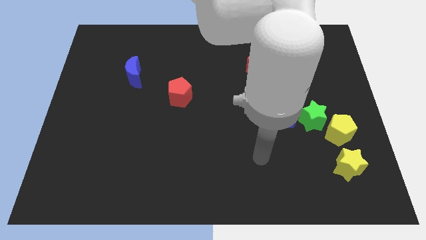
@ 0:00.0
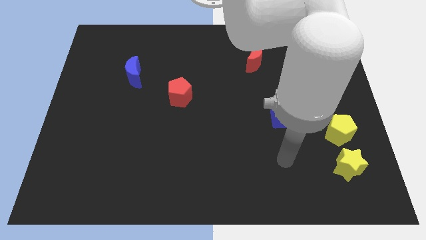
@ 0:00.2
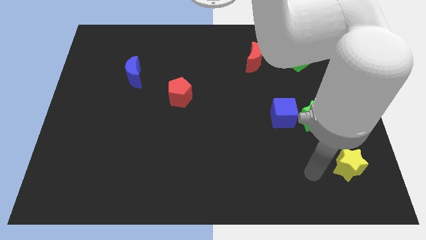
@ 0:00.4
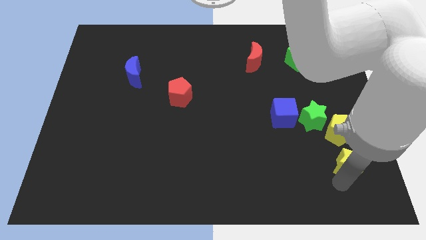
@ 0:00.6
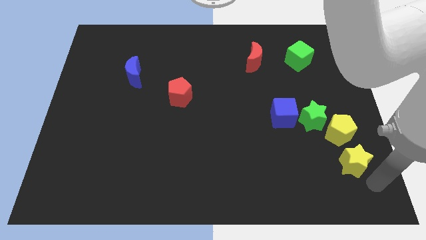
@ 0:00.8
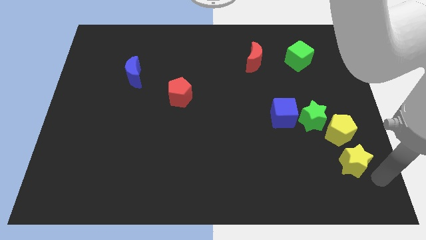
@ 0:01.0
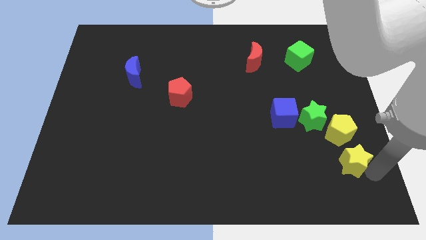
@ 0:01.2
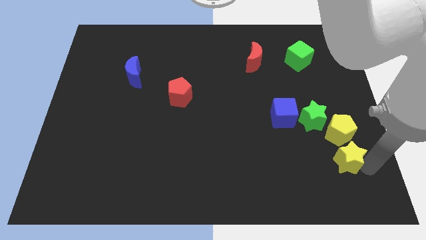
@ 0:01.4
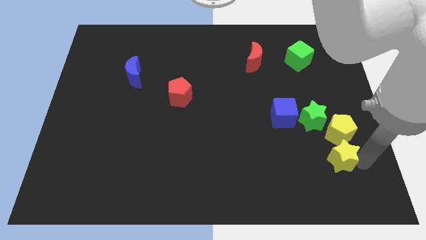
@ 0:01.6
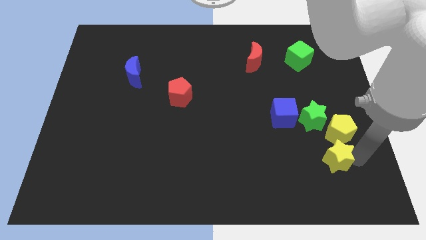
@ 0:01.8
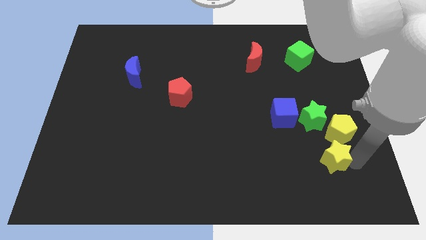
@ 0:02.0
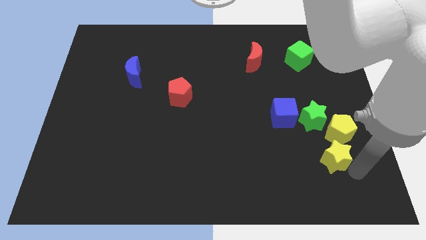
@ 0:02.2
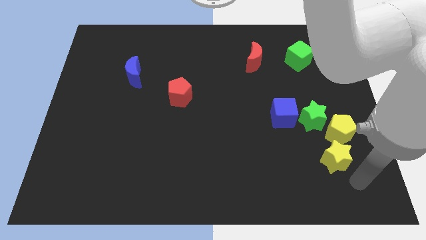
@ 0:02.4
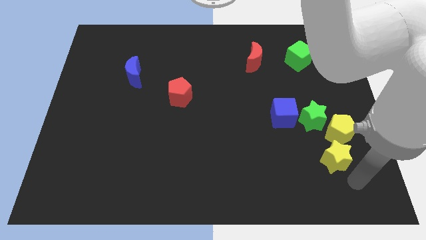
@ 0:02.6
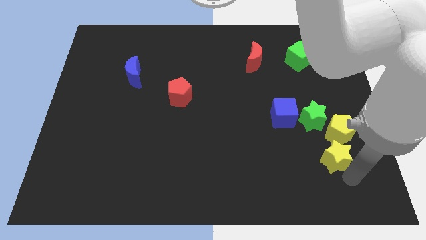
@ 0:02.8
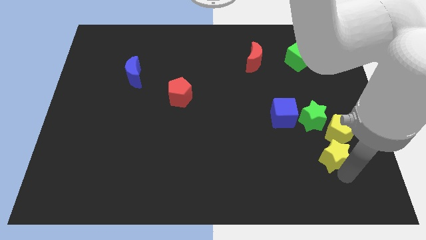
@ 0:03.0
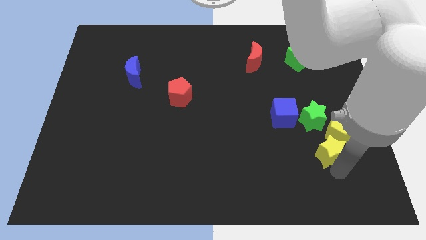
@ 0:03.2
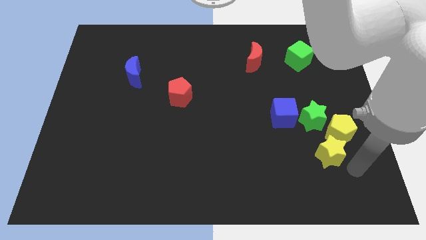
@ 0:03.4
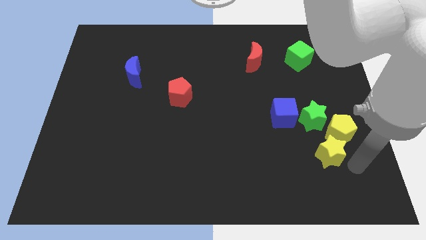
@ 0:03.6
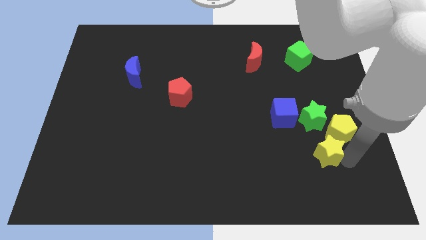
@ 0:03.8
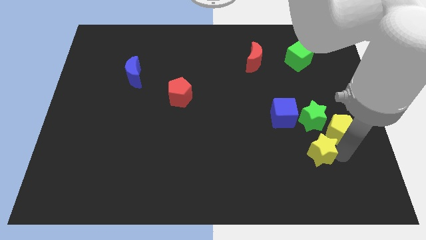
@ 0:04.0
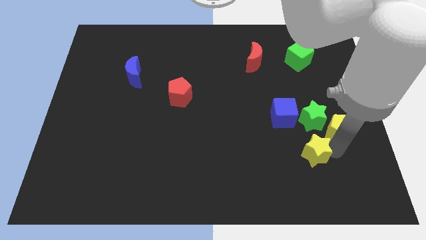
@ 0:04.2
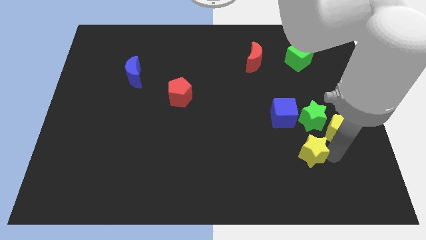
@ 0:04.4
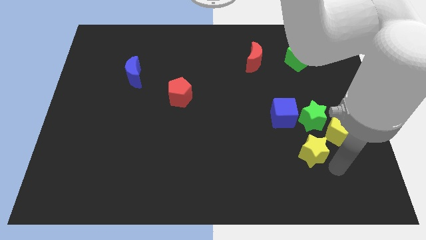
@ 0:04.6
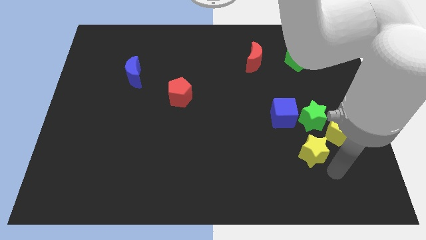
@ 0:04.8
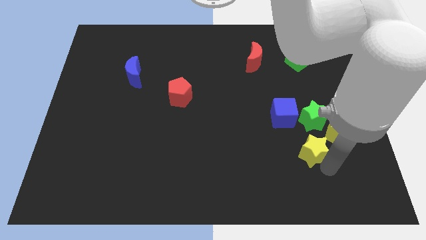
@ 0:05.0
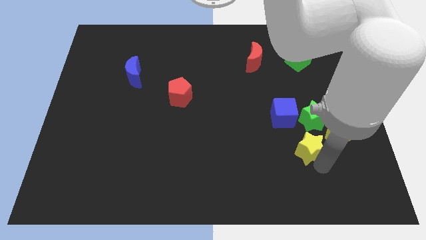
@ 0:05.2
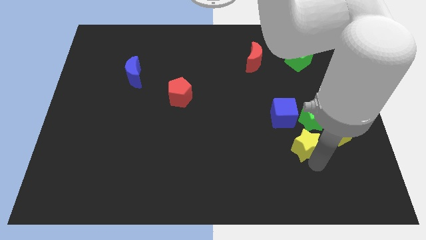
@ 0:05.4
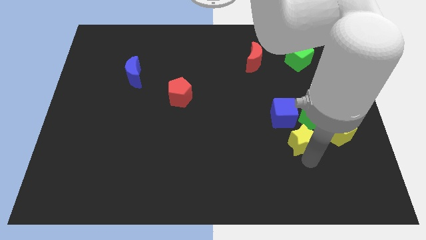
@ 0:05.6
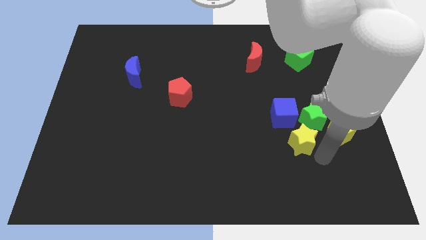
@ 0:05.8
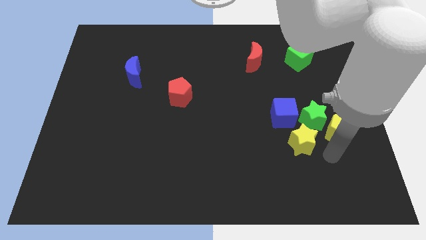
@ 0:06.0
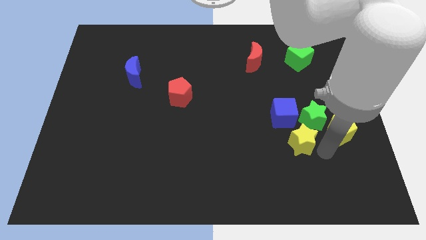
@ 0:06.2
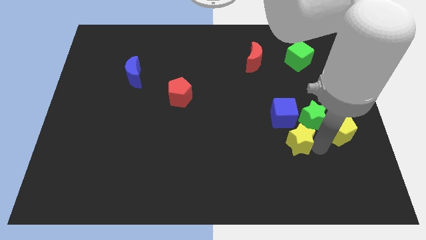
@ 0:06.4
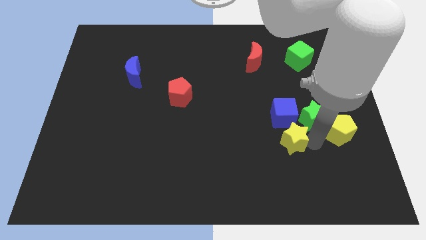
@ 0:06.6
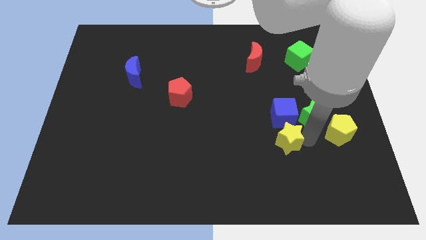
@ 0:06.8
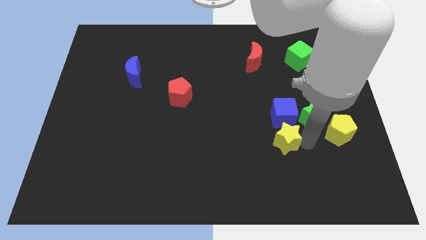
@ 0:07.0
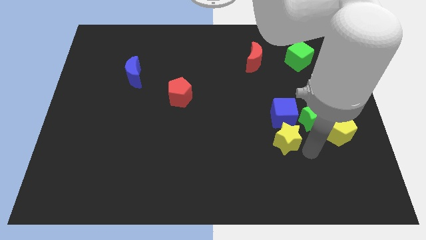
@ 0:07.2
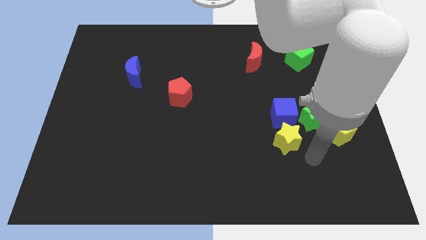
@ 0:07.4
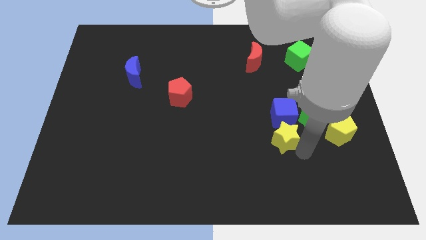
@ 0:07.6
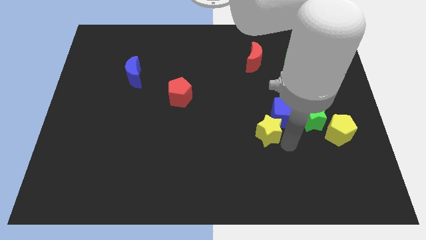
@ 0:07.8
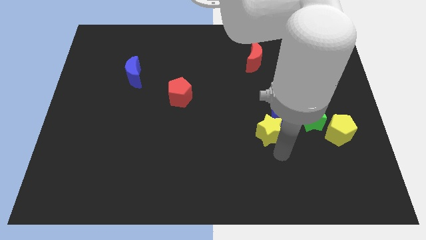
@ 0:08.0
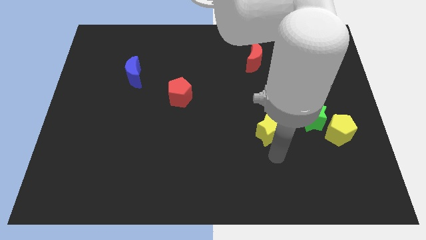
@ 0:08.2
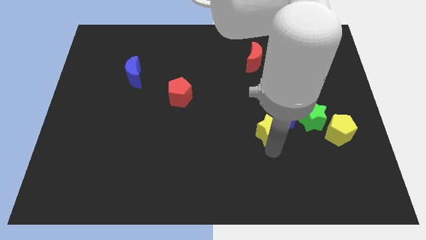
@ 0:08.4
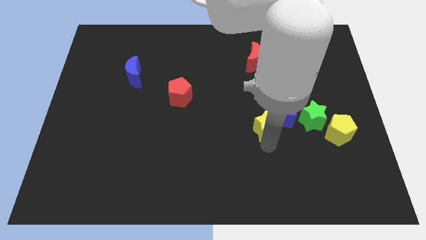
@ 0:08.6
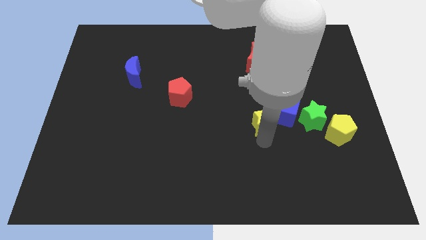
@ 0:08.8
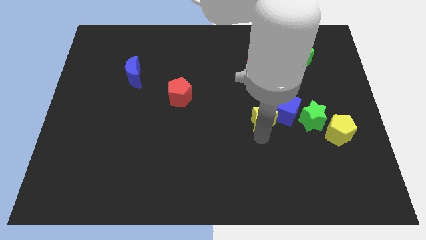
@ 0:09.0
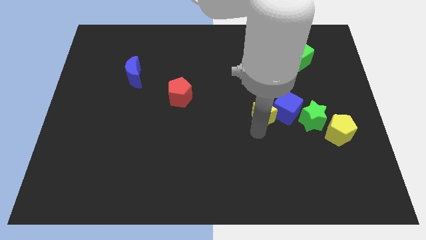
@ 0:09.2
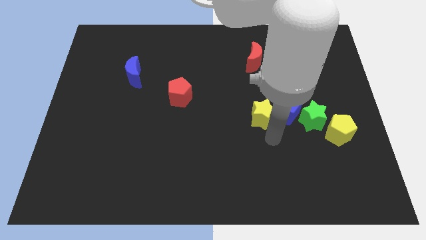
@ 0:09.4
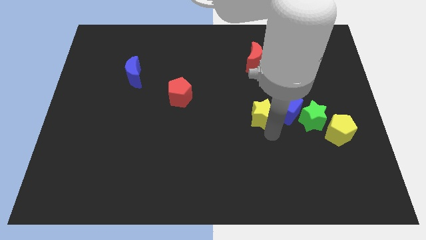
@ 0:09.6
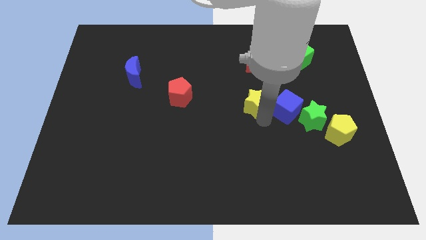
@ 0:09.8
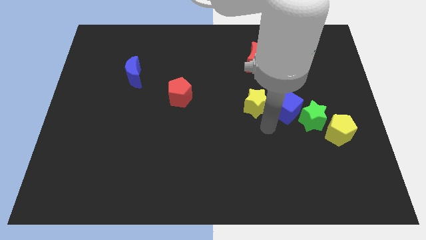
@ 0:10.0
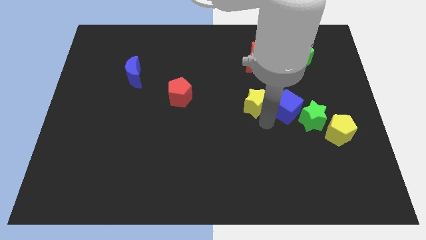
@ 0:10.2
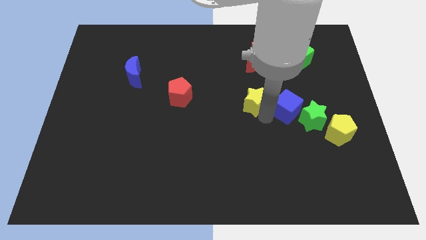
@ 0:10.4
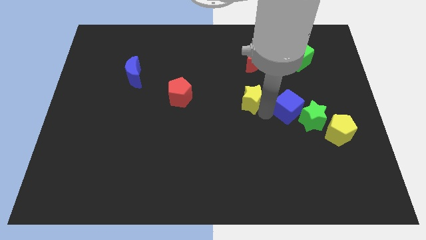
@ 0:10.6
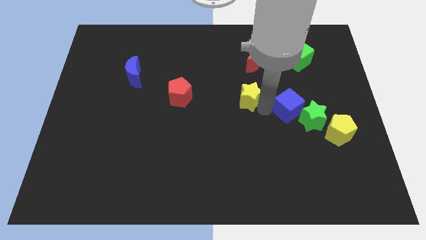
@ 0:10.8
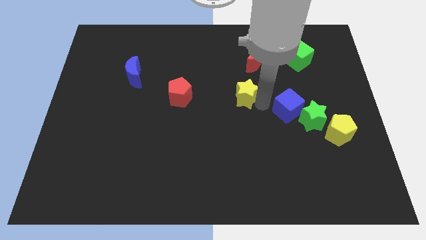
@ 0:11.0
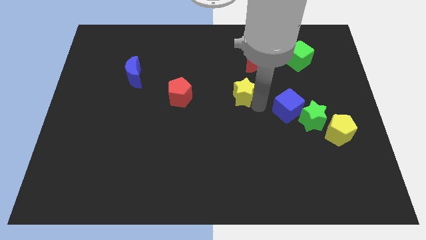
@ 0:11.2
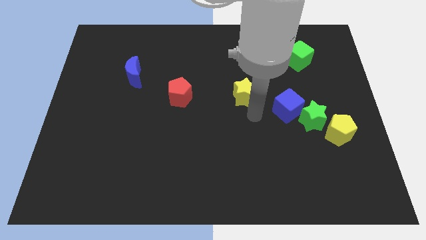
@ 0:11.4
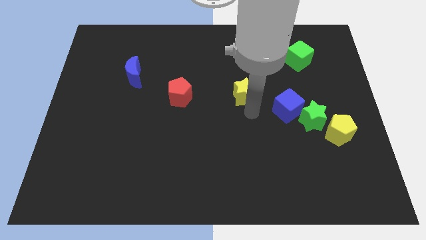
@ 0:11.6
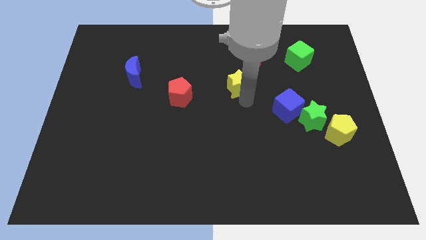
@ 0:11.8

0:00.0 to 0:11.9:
put the yellow star to the bottom left side of the red moon

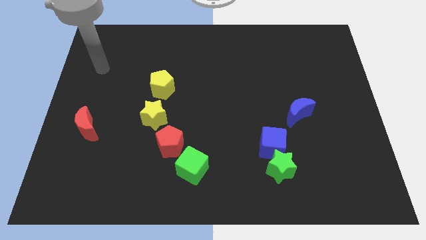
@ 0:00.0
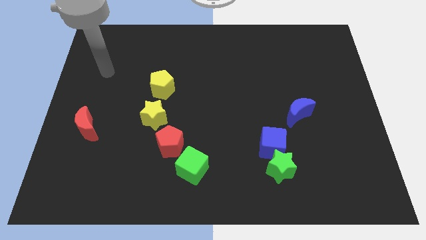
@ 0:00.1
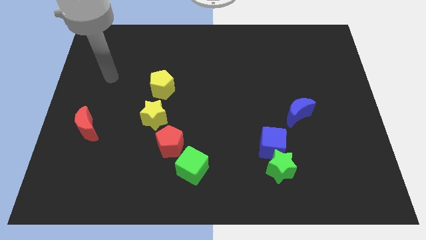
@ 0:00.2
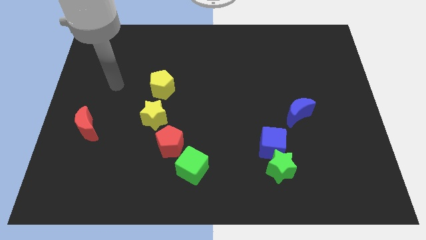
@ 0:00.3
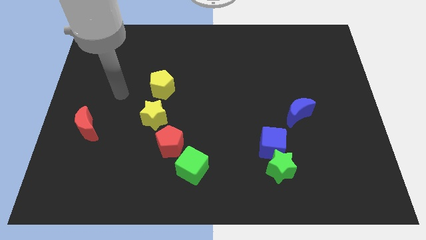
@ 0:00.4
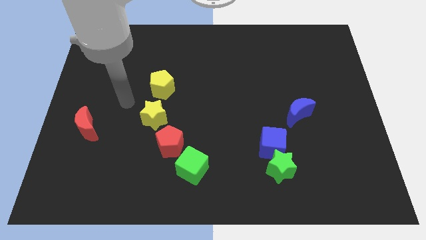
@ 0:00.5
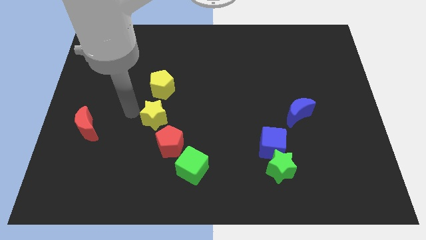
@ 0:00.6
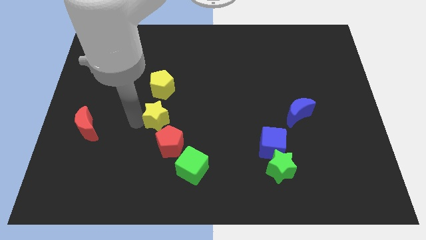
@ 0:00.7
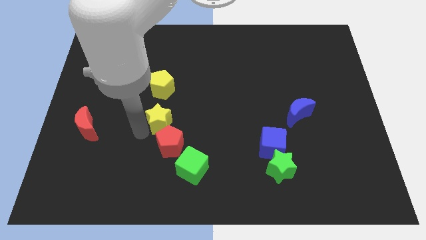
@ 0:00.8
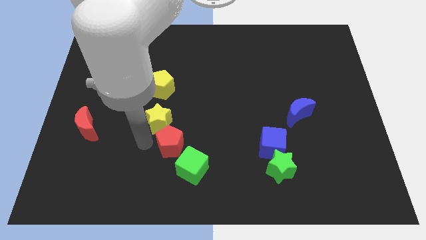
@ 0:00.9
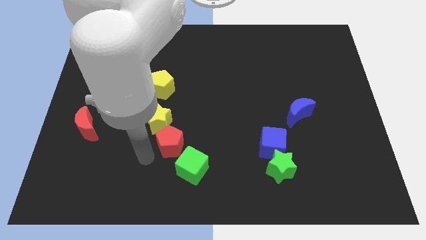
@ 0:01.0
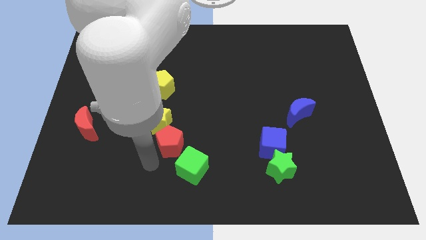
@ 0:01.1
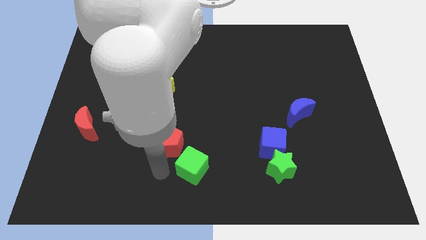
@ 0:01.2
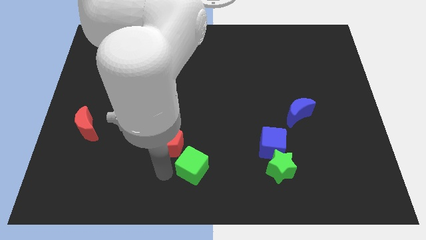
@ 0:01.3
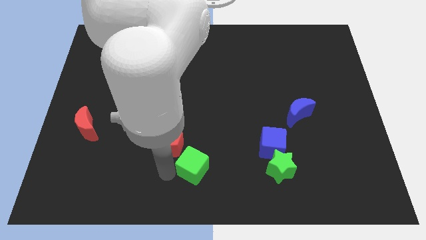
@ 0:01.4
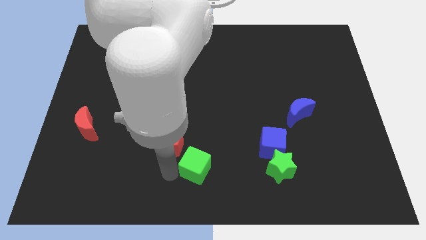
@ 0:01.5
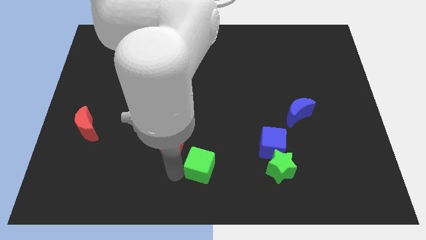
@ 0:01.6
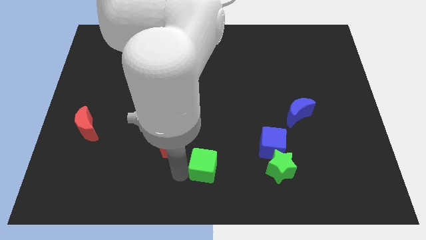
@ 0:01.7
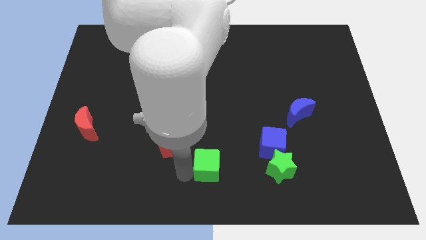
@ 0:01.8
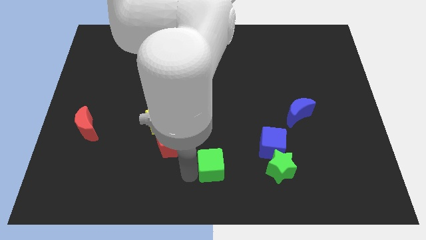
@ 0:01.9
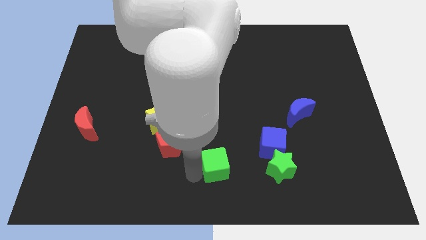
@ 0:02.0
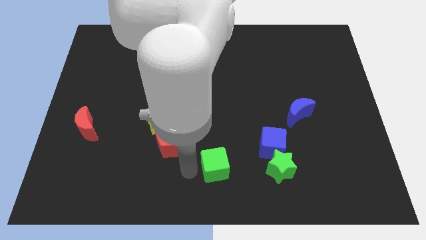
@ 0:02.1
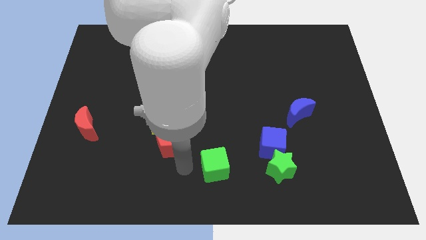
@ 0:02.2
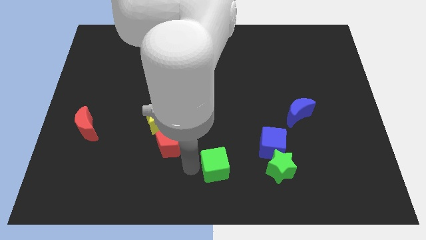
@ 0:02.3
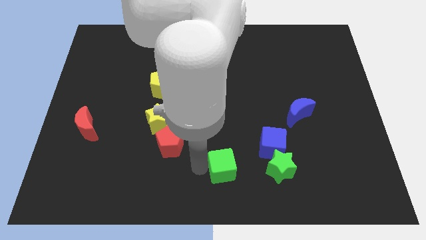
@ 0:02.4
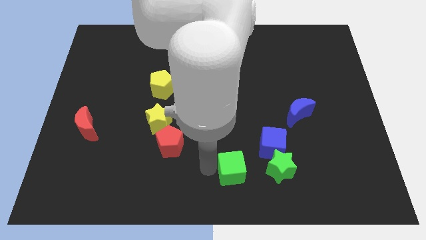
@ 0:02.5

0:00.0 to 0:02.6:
push the green cube to the bottom left side of the blue cube
